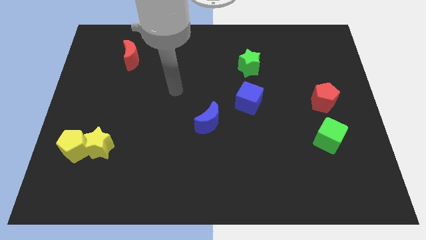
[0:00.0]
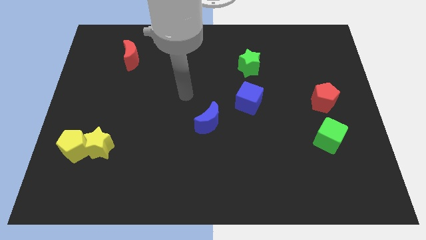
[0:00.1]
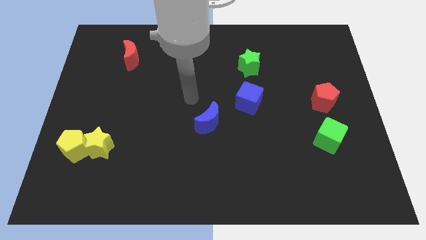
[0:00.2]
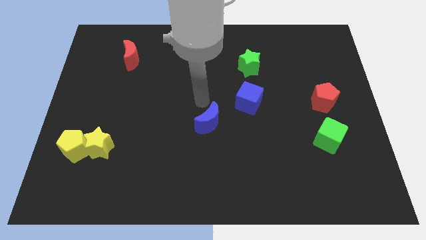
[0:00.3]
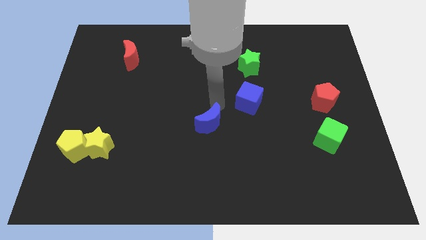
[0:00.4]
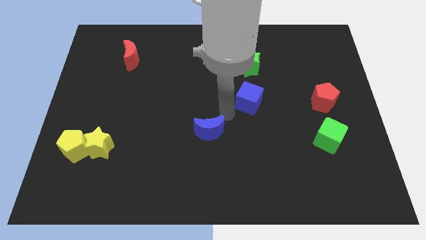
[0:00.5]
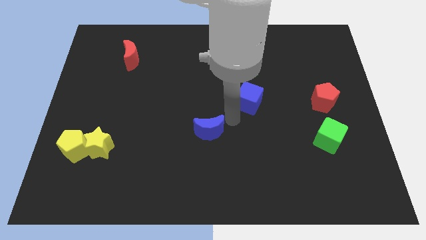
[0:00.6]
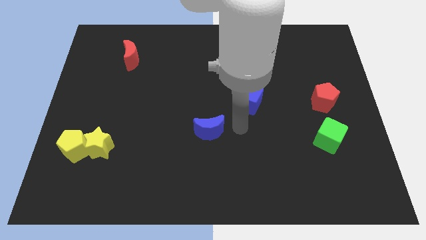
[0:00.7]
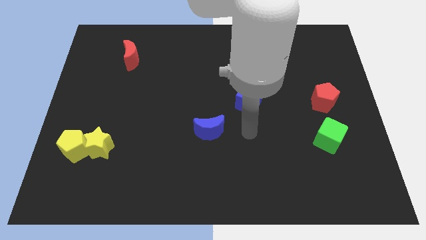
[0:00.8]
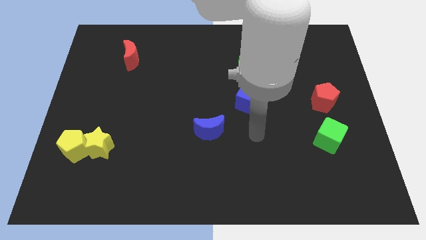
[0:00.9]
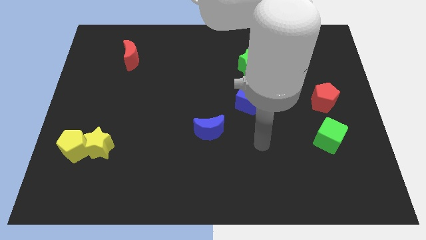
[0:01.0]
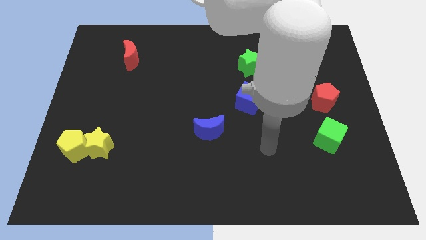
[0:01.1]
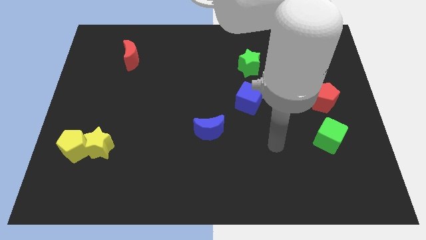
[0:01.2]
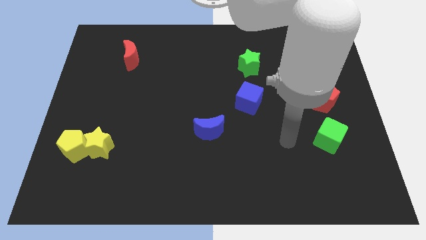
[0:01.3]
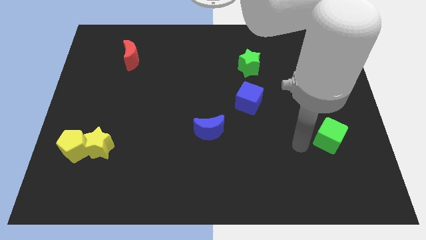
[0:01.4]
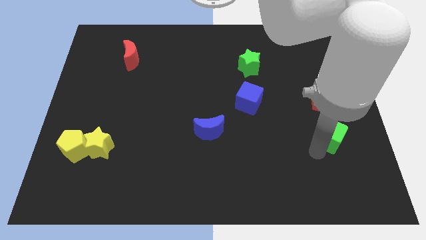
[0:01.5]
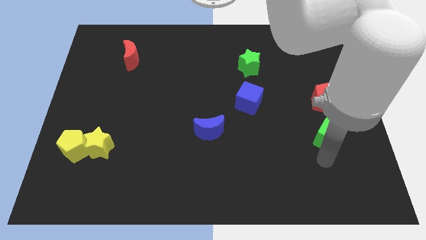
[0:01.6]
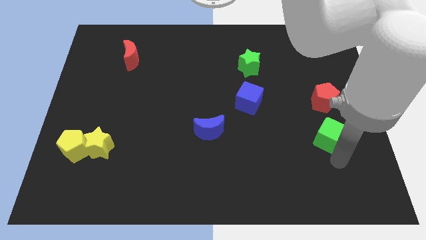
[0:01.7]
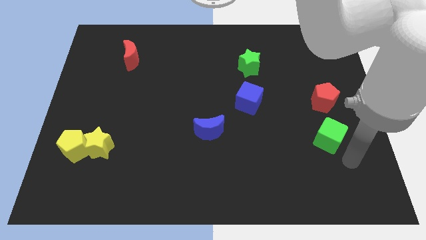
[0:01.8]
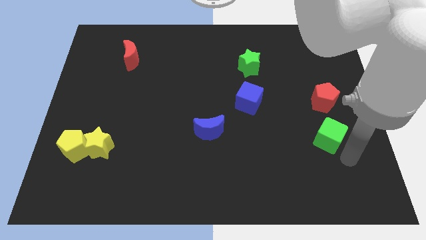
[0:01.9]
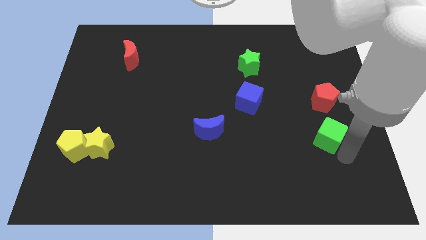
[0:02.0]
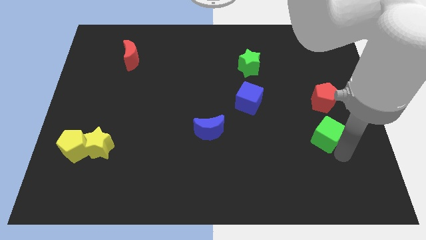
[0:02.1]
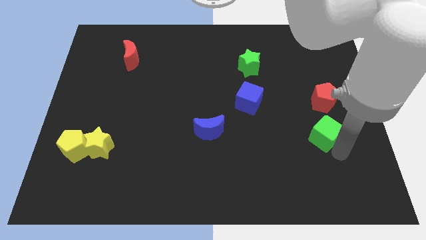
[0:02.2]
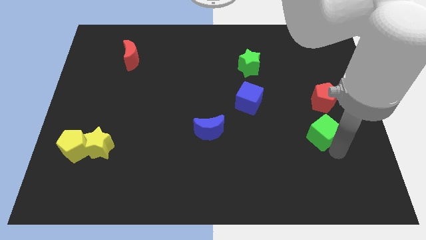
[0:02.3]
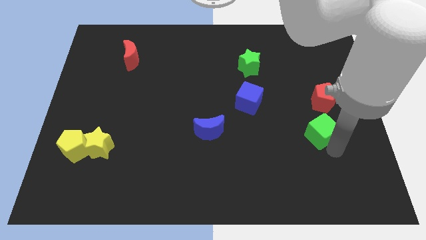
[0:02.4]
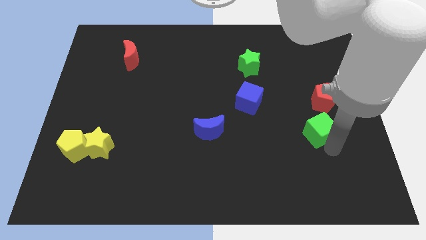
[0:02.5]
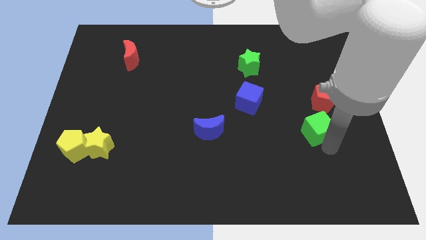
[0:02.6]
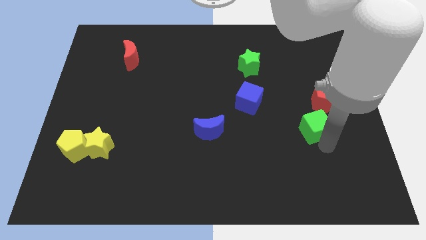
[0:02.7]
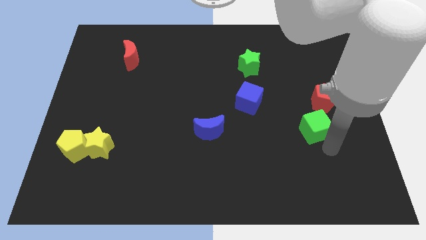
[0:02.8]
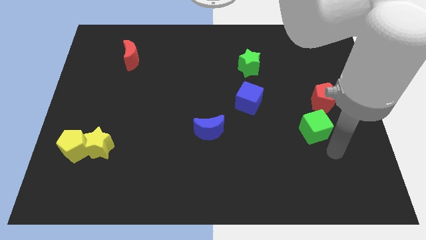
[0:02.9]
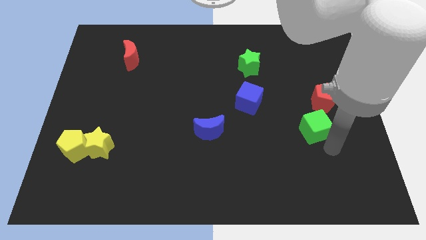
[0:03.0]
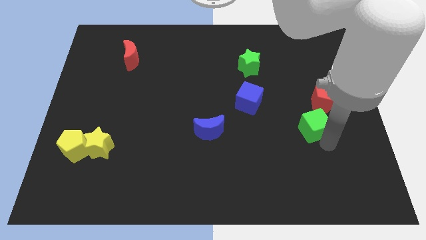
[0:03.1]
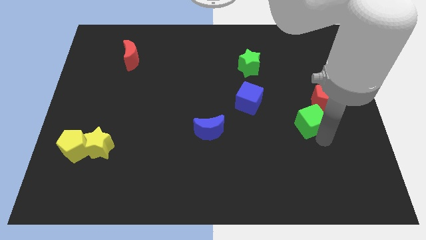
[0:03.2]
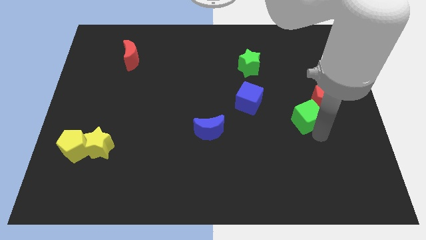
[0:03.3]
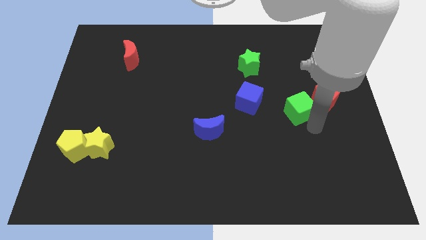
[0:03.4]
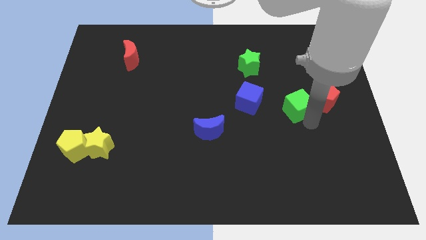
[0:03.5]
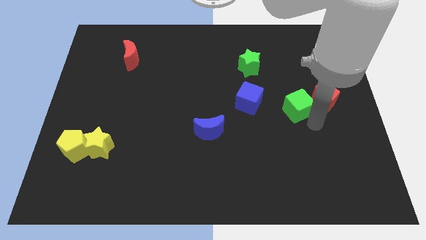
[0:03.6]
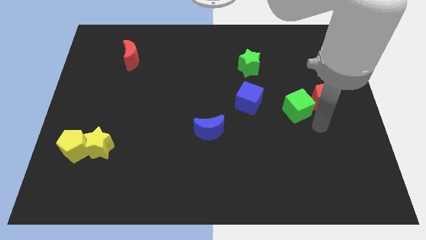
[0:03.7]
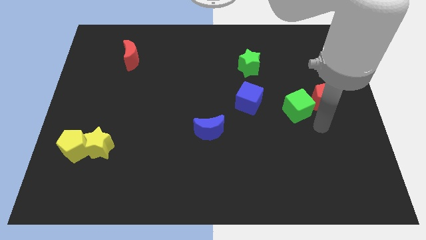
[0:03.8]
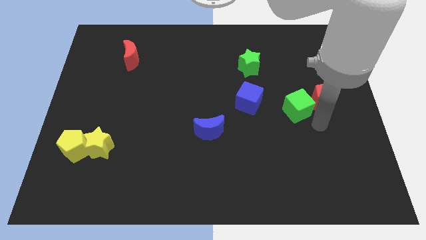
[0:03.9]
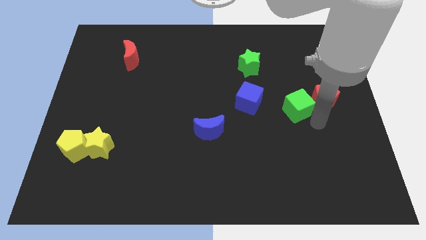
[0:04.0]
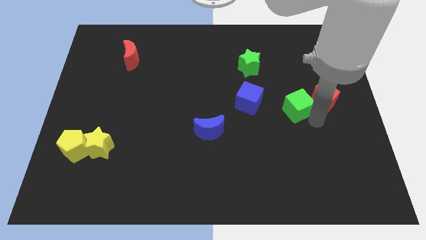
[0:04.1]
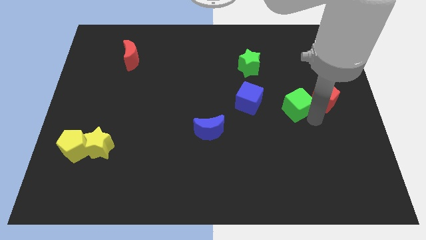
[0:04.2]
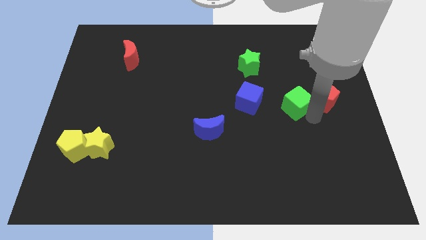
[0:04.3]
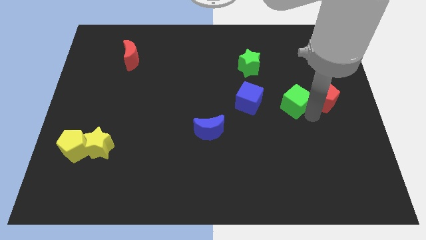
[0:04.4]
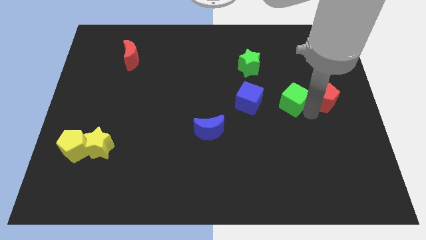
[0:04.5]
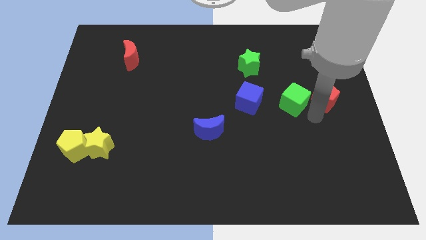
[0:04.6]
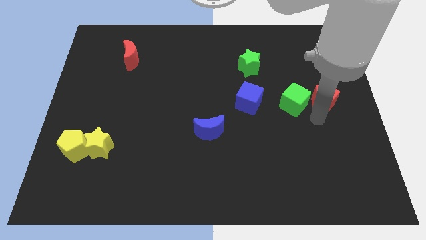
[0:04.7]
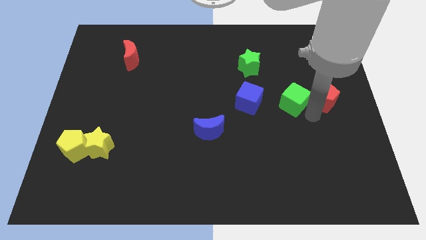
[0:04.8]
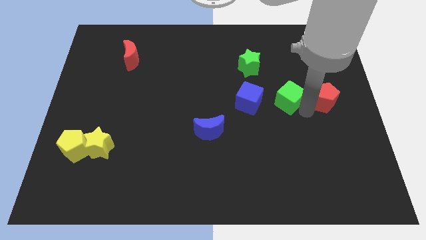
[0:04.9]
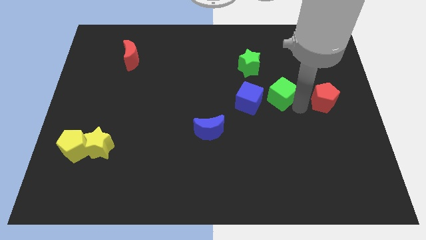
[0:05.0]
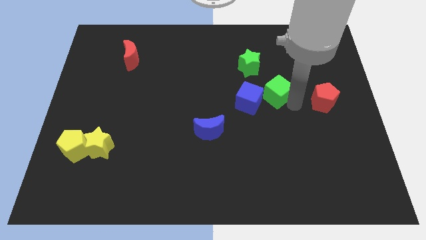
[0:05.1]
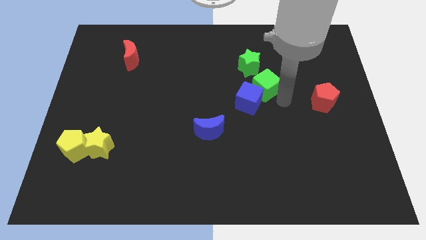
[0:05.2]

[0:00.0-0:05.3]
slide the green cube to the top side of the blue cube

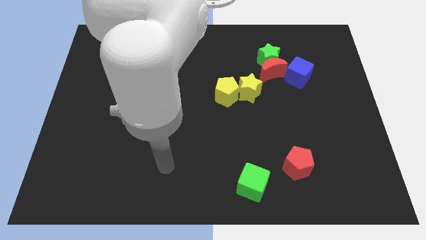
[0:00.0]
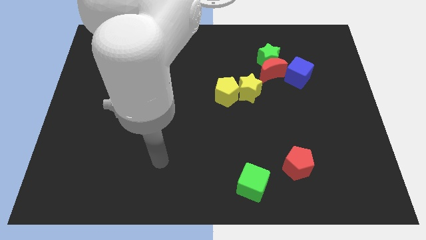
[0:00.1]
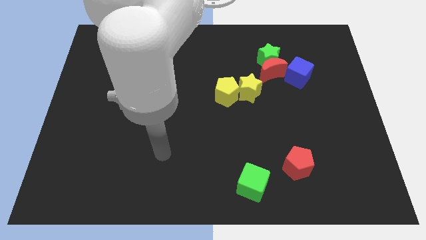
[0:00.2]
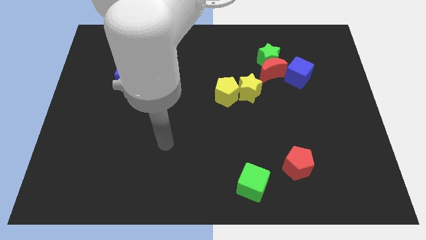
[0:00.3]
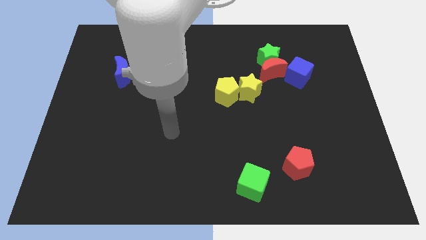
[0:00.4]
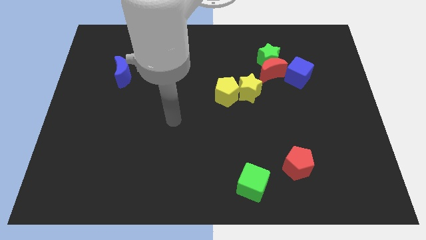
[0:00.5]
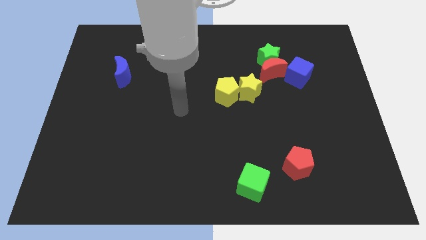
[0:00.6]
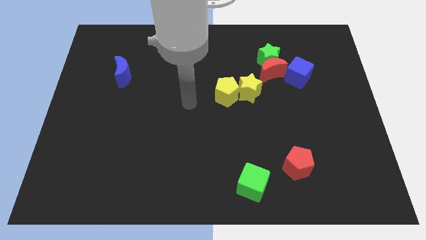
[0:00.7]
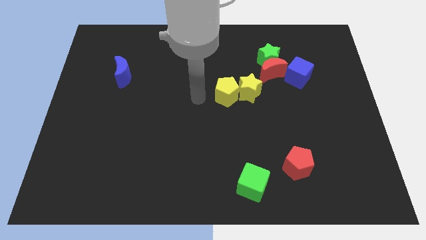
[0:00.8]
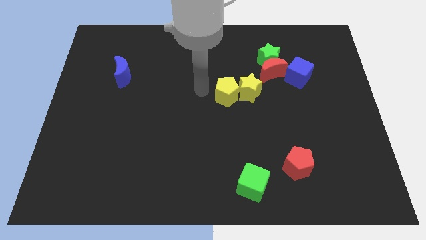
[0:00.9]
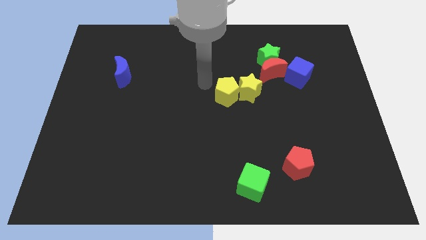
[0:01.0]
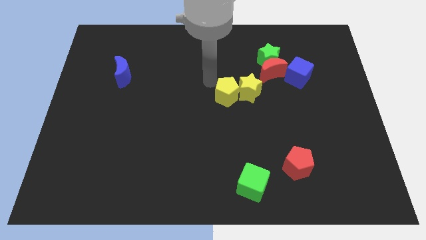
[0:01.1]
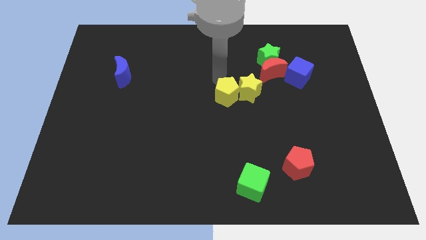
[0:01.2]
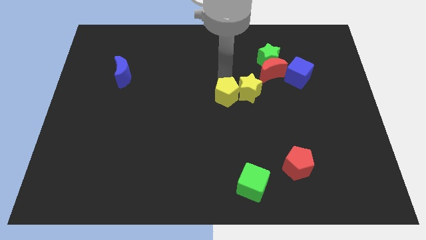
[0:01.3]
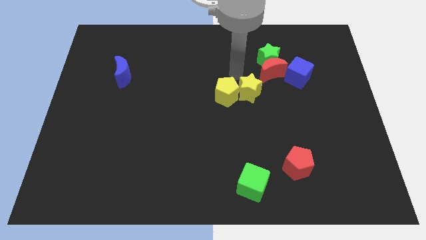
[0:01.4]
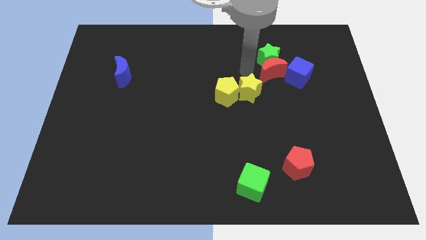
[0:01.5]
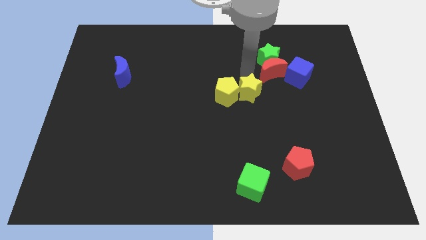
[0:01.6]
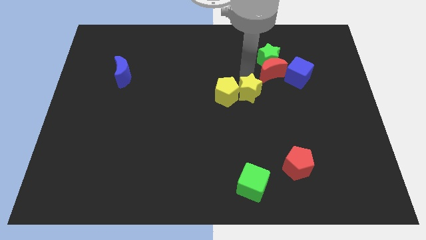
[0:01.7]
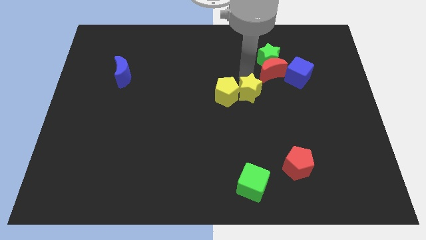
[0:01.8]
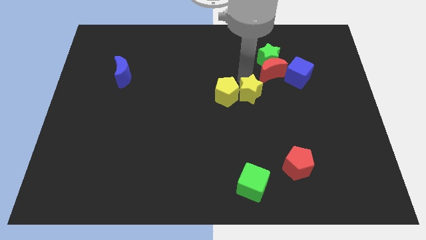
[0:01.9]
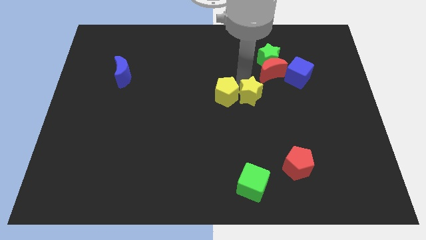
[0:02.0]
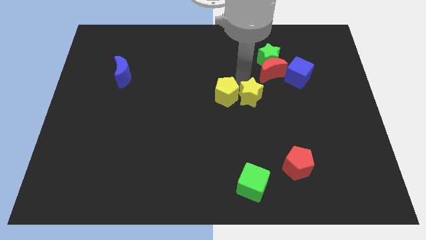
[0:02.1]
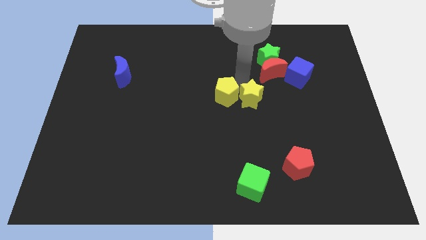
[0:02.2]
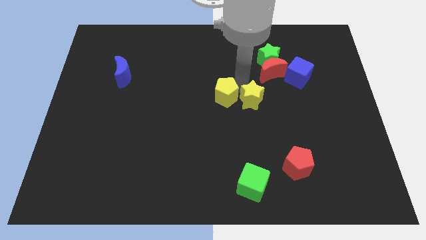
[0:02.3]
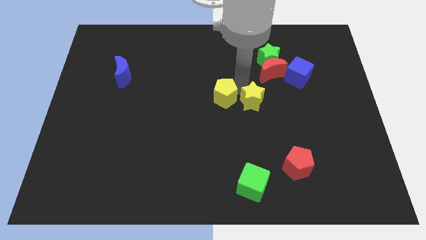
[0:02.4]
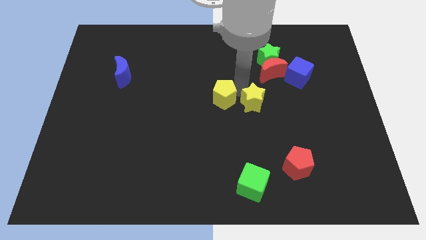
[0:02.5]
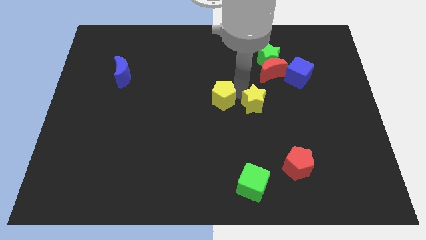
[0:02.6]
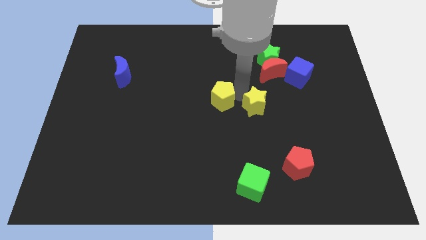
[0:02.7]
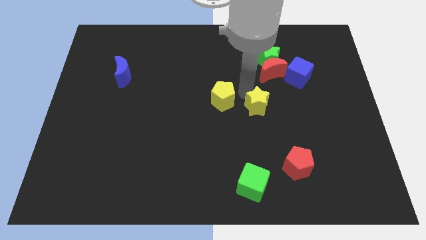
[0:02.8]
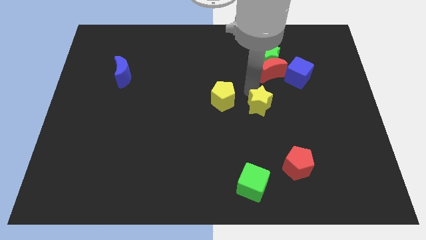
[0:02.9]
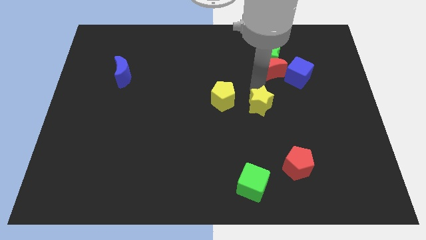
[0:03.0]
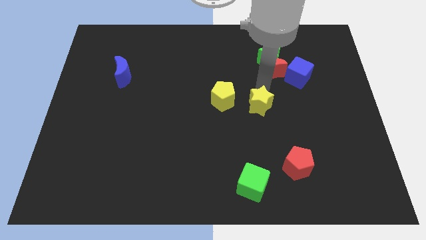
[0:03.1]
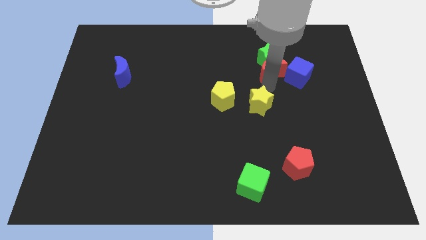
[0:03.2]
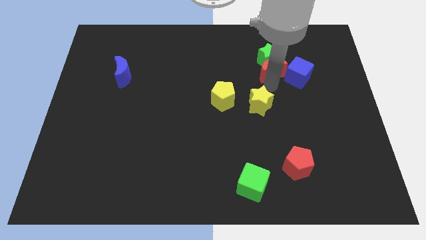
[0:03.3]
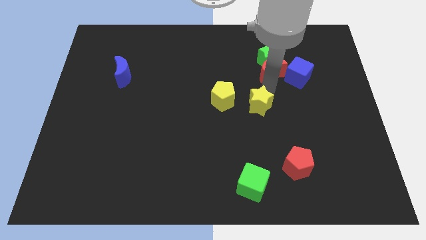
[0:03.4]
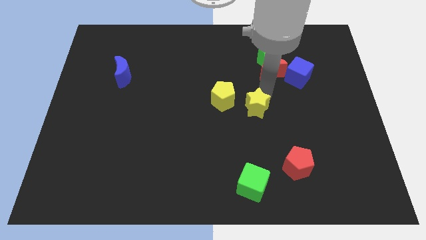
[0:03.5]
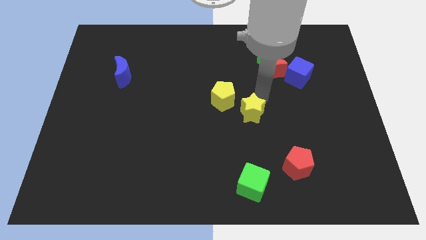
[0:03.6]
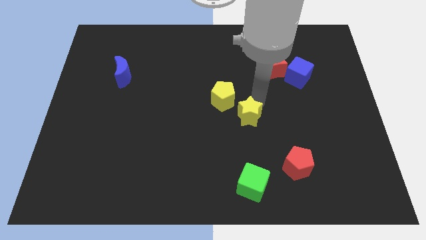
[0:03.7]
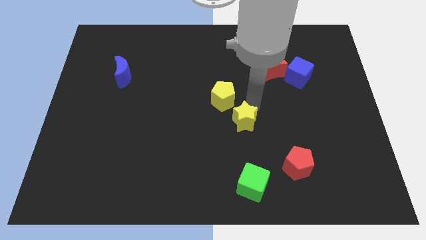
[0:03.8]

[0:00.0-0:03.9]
put the yellow star to the top side of the green cube

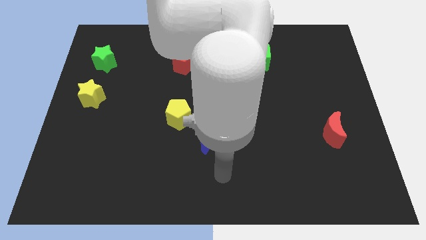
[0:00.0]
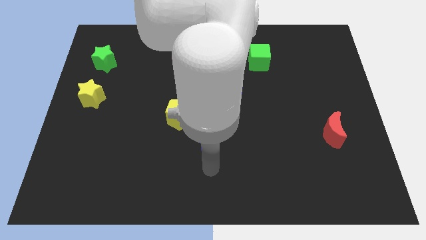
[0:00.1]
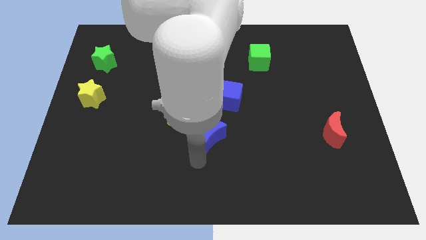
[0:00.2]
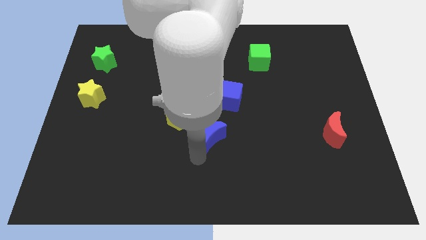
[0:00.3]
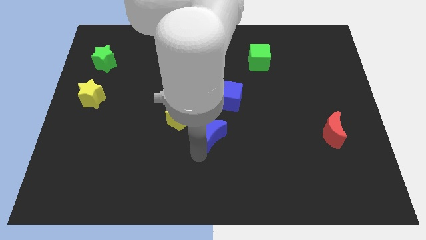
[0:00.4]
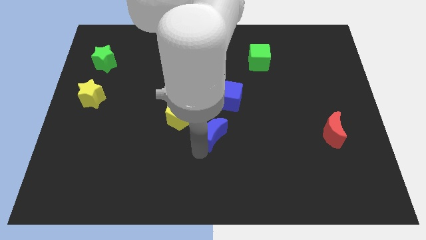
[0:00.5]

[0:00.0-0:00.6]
slide the blue moon to the right side of the yellow pentagon
